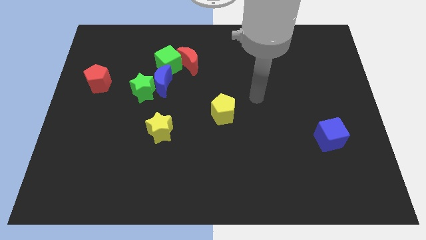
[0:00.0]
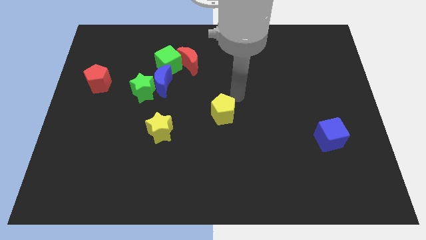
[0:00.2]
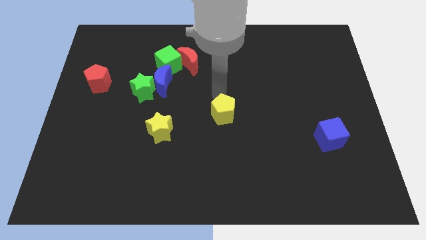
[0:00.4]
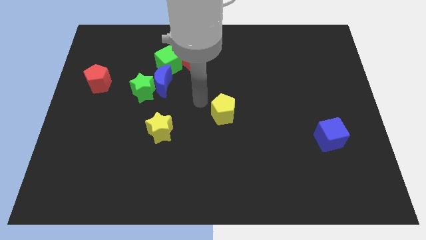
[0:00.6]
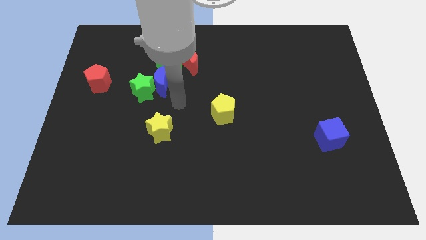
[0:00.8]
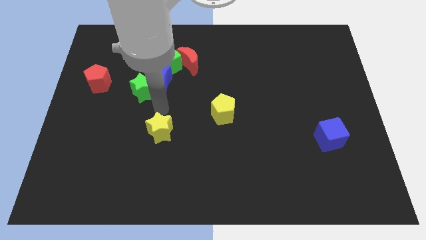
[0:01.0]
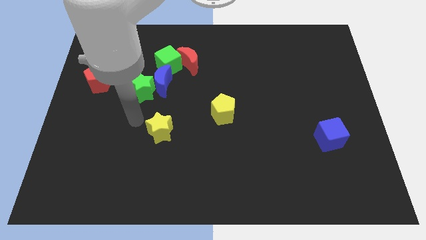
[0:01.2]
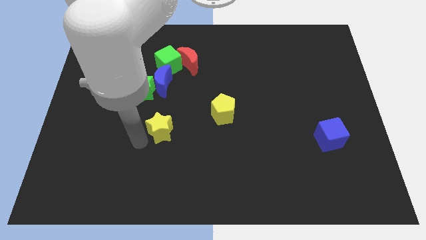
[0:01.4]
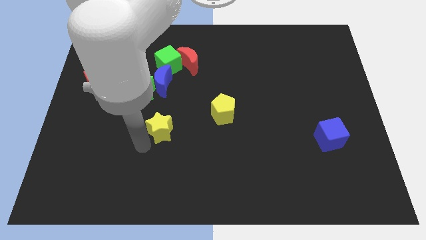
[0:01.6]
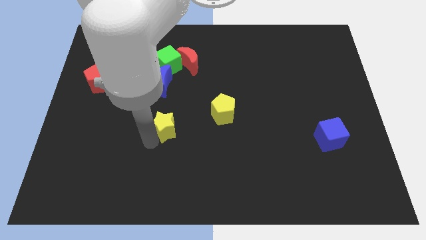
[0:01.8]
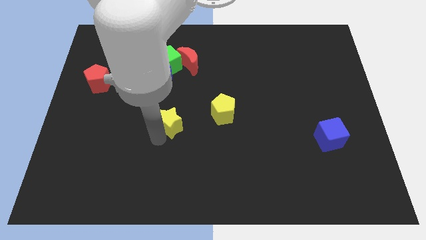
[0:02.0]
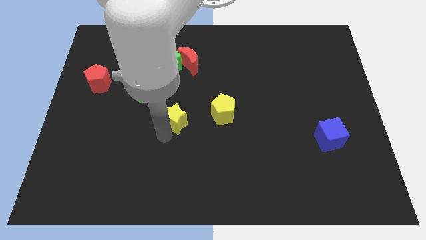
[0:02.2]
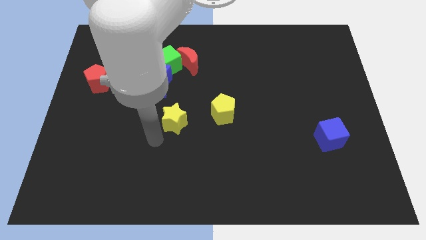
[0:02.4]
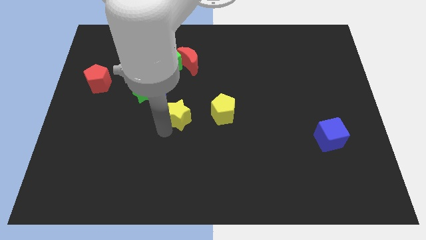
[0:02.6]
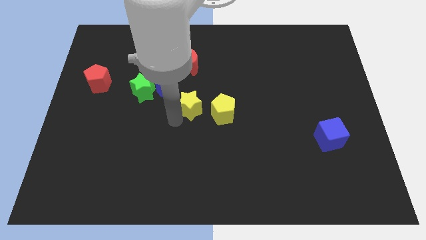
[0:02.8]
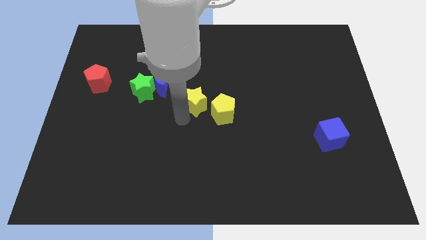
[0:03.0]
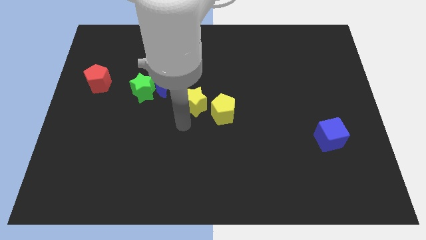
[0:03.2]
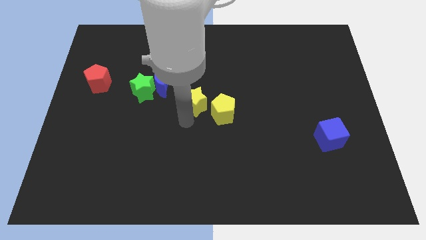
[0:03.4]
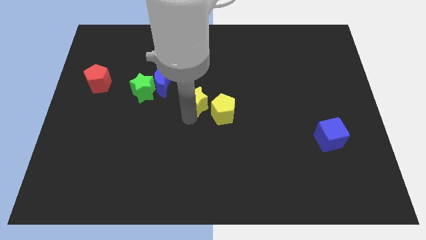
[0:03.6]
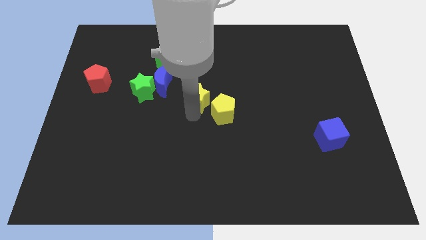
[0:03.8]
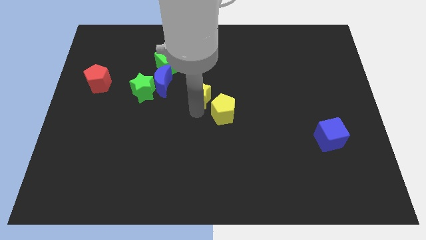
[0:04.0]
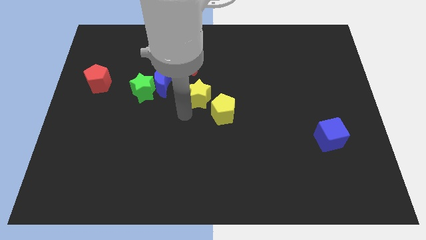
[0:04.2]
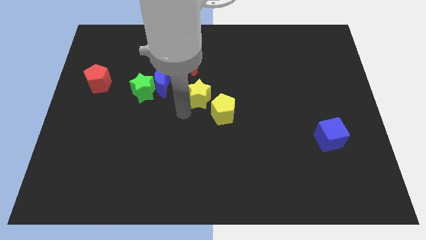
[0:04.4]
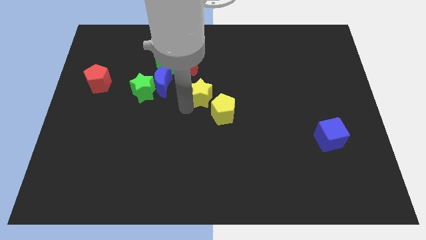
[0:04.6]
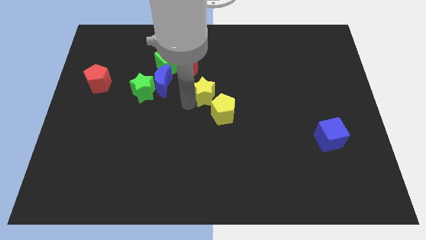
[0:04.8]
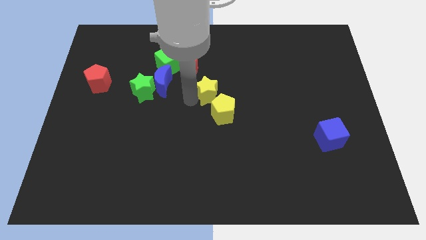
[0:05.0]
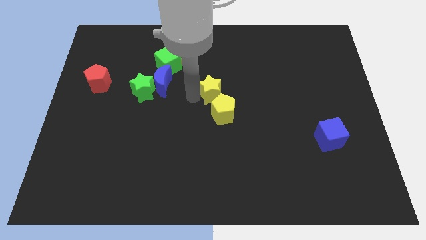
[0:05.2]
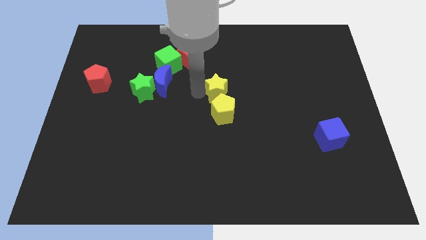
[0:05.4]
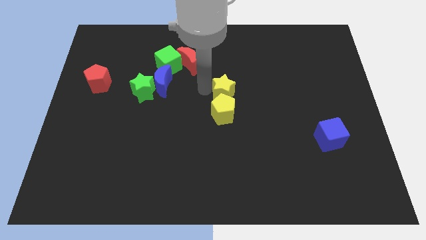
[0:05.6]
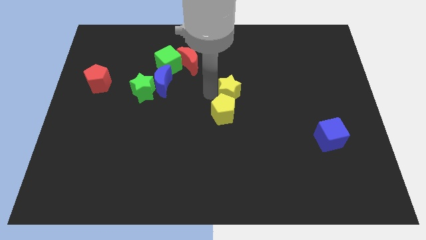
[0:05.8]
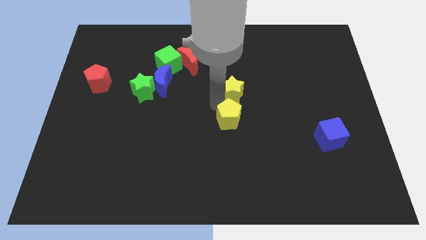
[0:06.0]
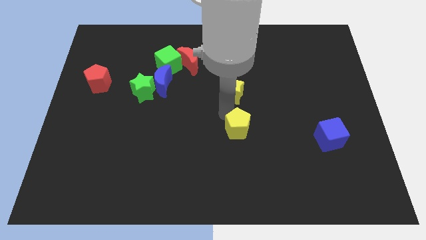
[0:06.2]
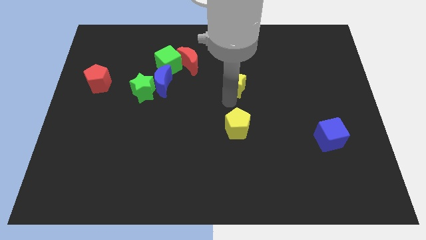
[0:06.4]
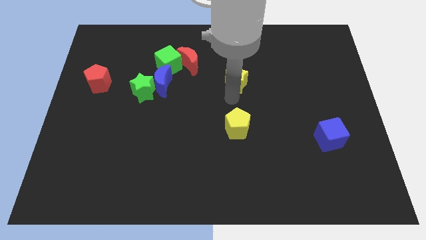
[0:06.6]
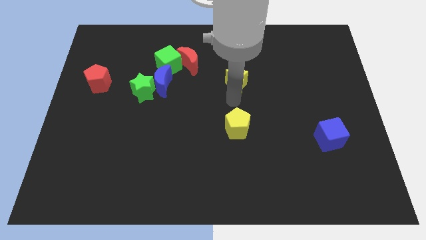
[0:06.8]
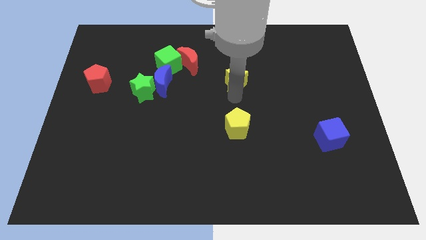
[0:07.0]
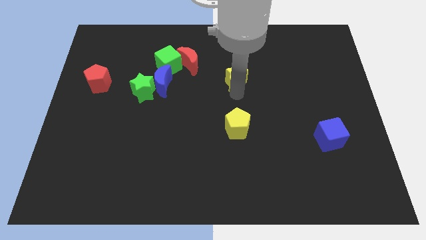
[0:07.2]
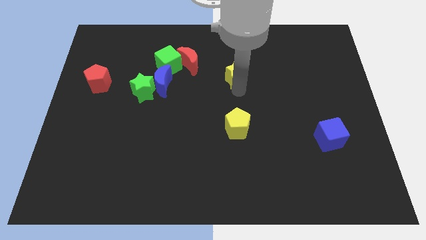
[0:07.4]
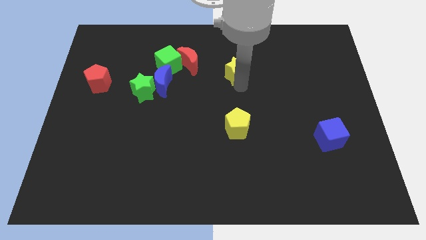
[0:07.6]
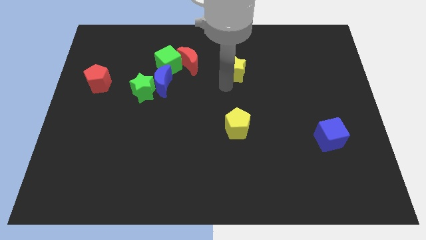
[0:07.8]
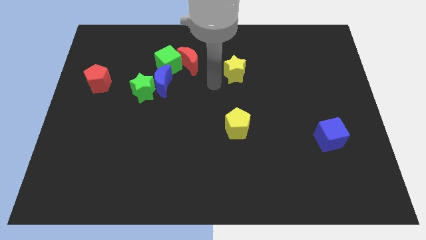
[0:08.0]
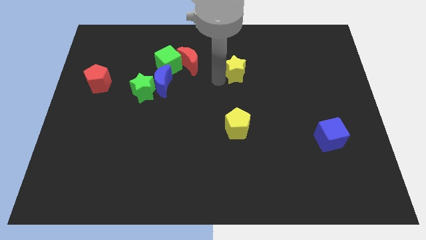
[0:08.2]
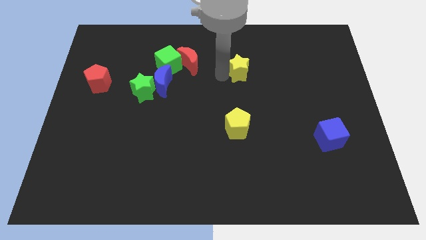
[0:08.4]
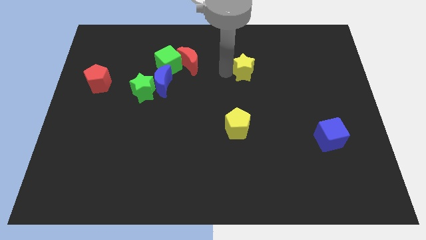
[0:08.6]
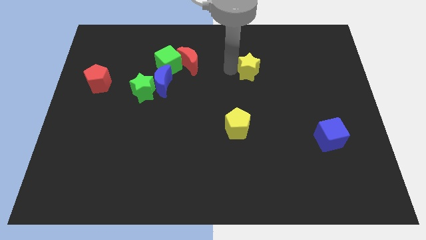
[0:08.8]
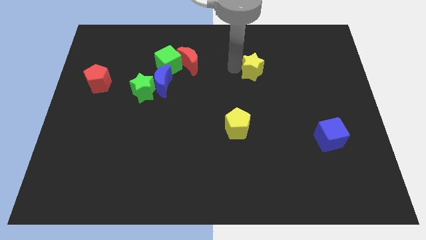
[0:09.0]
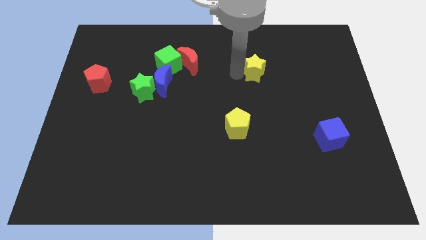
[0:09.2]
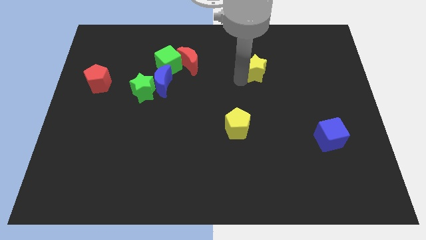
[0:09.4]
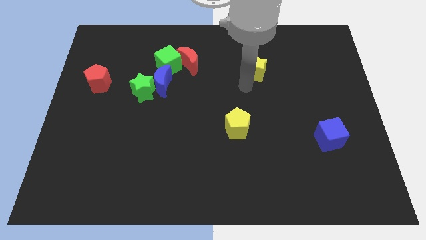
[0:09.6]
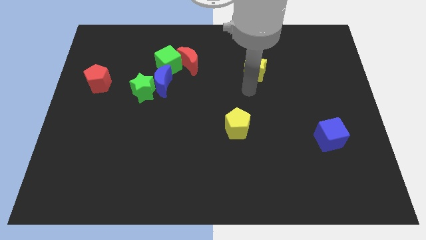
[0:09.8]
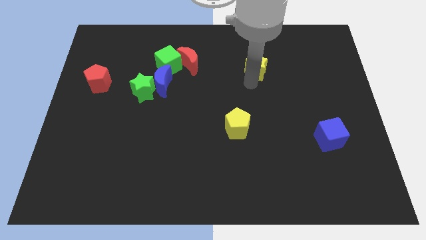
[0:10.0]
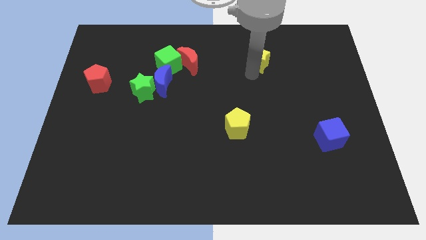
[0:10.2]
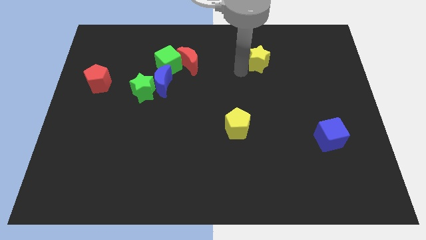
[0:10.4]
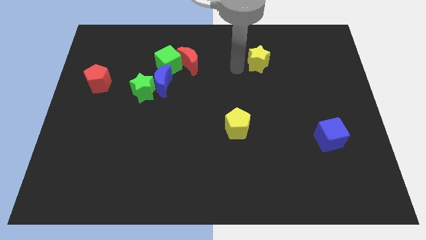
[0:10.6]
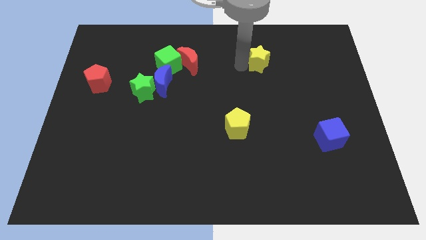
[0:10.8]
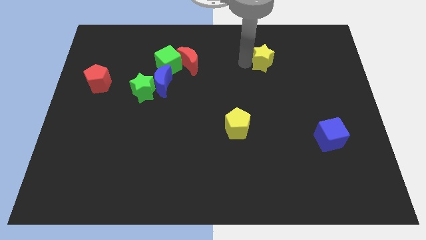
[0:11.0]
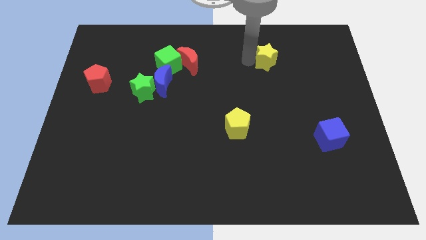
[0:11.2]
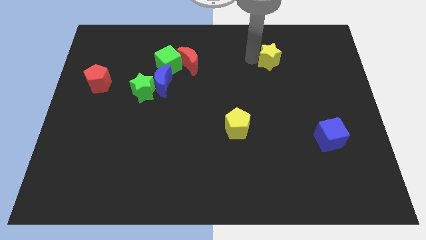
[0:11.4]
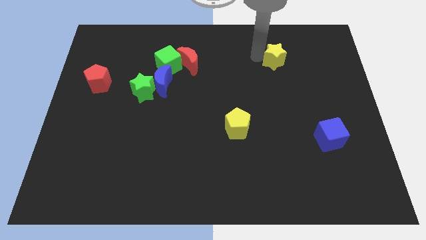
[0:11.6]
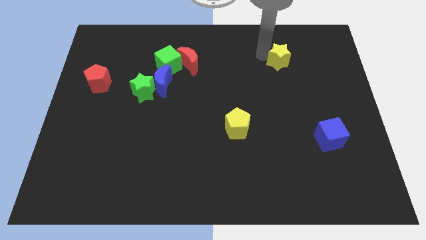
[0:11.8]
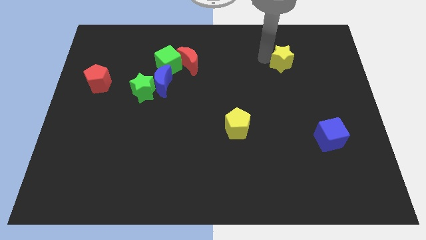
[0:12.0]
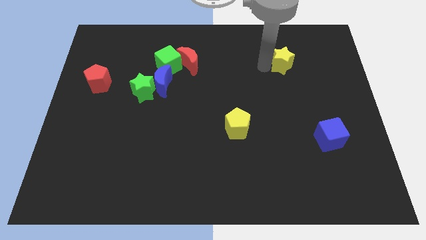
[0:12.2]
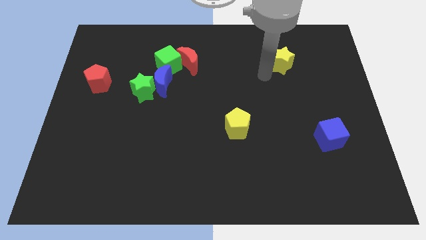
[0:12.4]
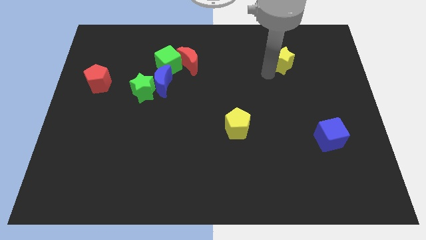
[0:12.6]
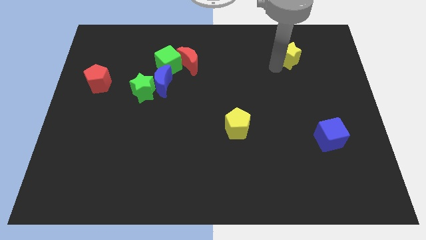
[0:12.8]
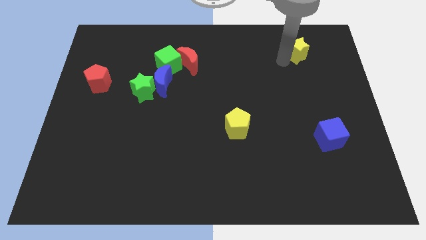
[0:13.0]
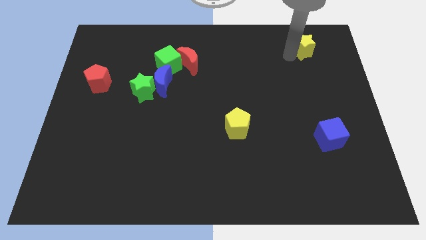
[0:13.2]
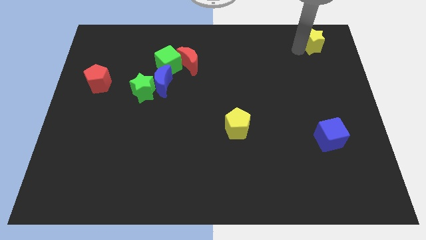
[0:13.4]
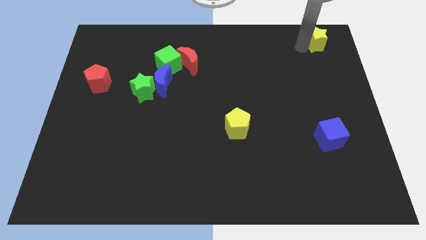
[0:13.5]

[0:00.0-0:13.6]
push the yellow star to the upper right corner

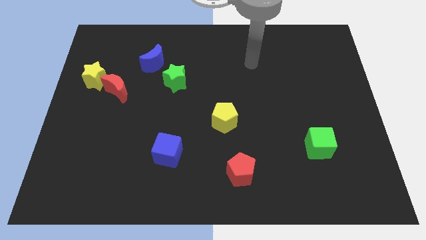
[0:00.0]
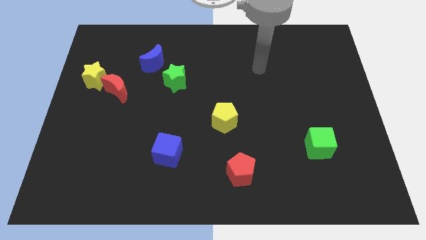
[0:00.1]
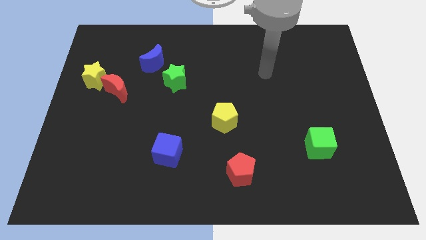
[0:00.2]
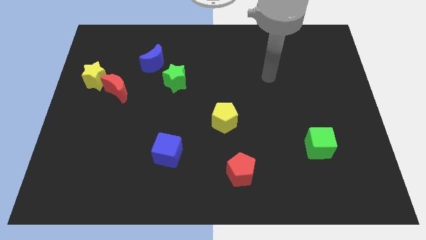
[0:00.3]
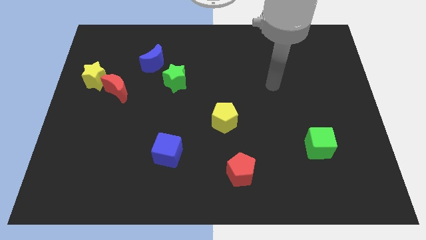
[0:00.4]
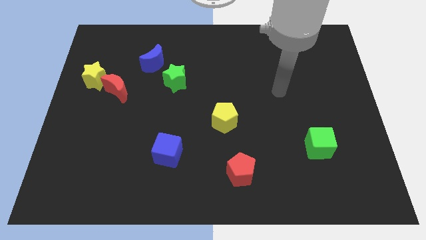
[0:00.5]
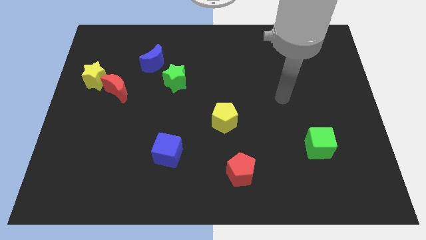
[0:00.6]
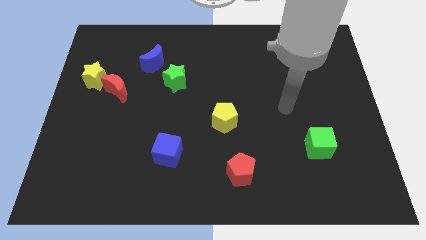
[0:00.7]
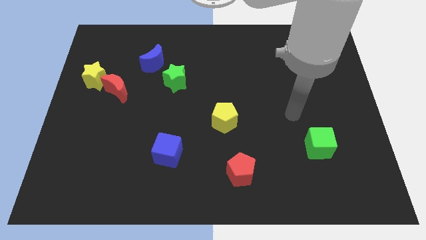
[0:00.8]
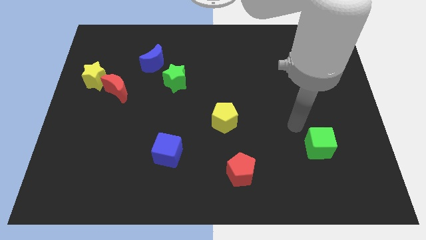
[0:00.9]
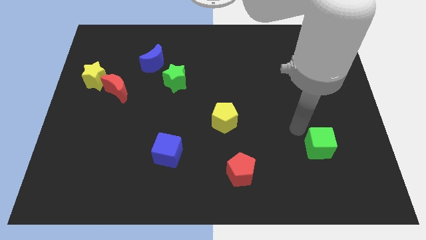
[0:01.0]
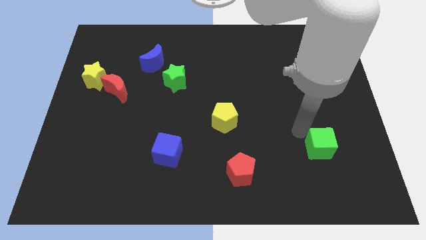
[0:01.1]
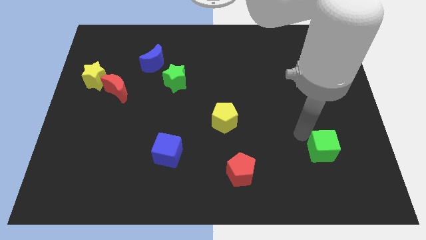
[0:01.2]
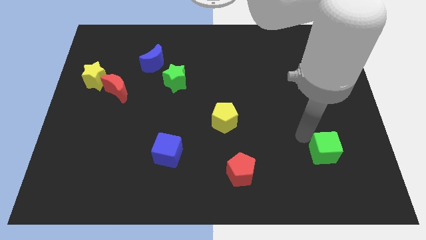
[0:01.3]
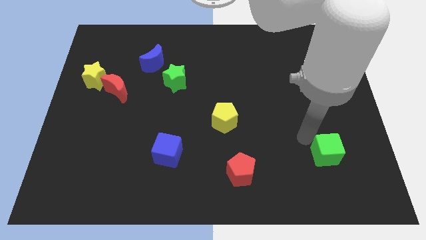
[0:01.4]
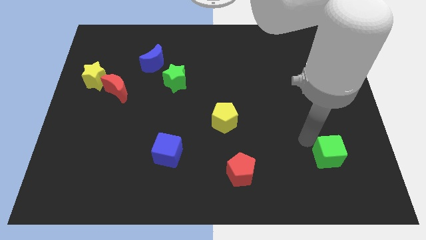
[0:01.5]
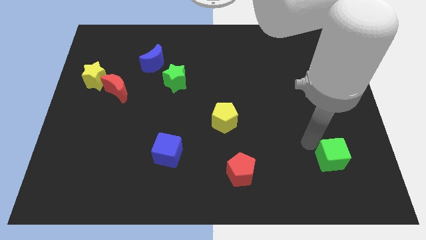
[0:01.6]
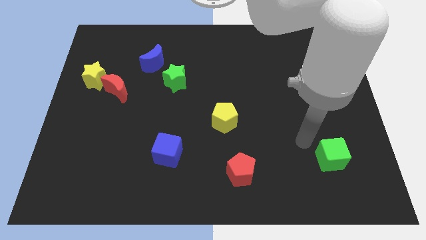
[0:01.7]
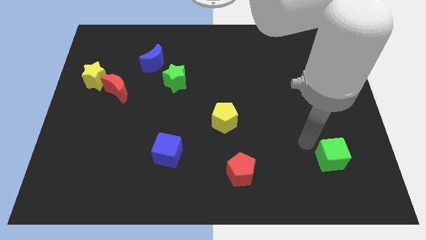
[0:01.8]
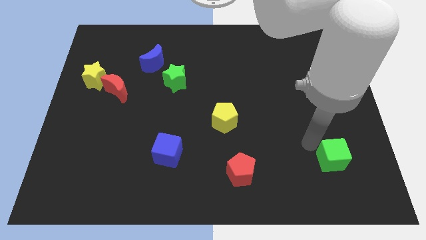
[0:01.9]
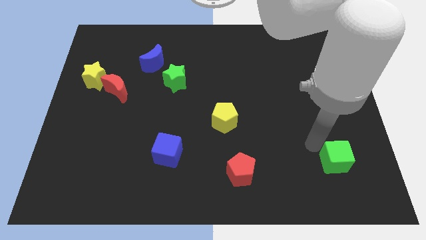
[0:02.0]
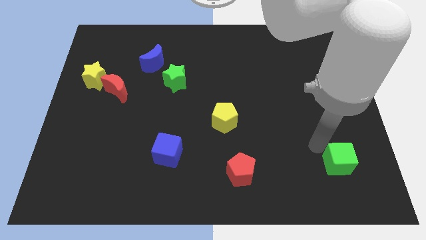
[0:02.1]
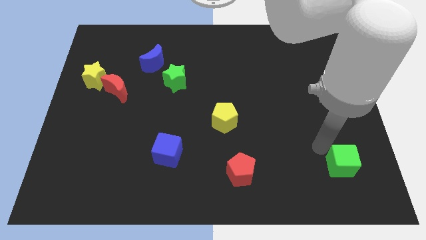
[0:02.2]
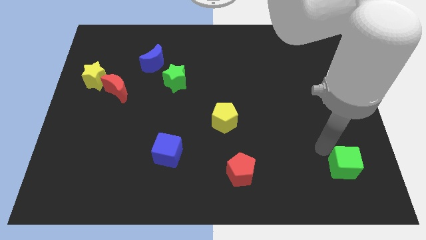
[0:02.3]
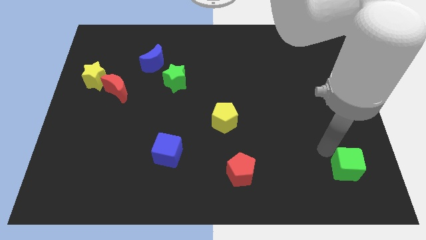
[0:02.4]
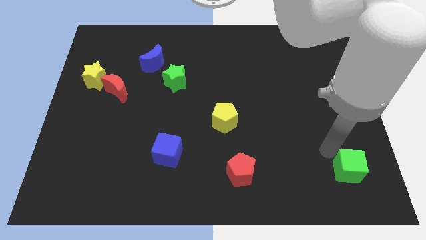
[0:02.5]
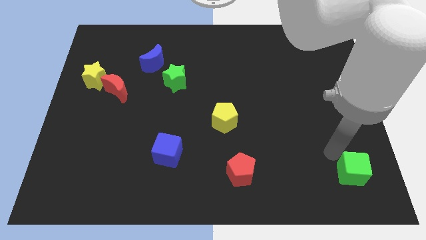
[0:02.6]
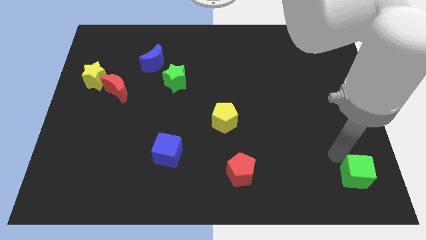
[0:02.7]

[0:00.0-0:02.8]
push the green cube to the bottom right
